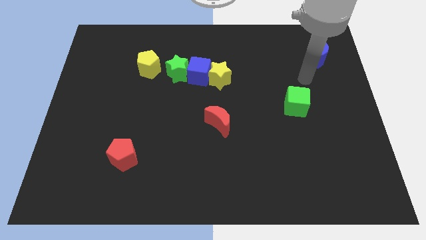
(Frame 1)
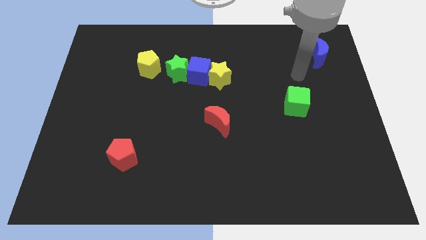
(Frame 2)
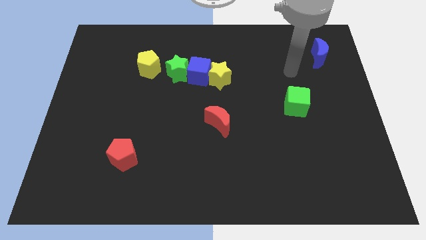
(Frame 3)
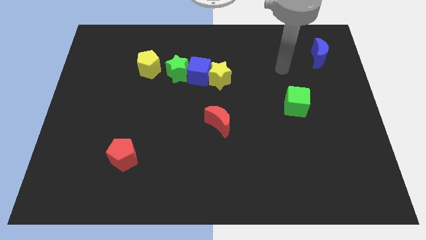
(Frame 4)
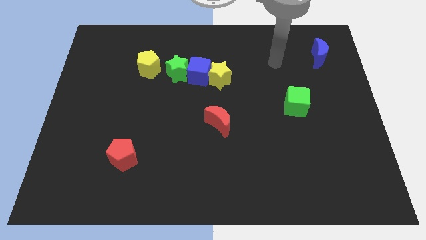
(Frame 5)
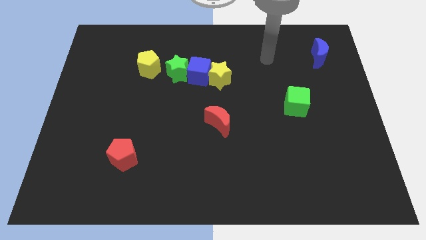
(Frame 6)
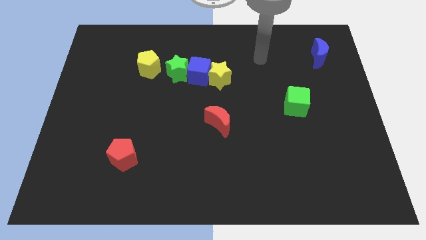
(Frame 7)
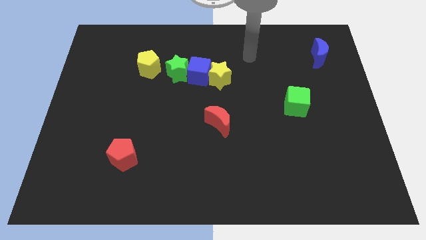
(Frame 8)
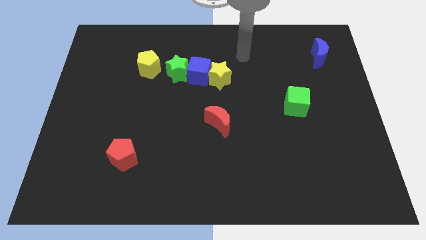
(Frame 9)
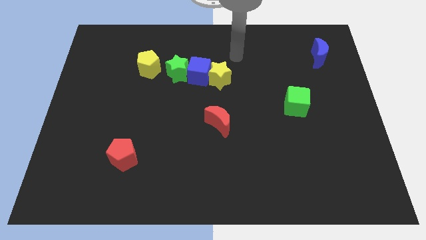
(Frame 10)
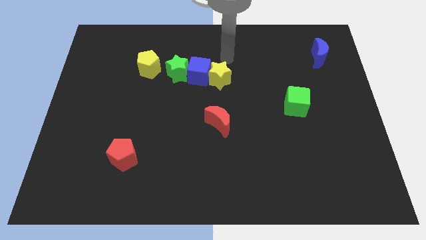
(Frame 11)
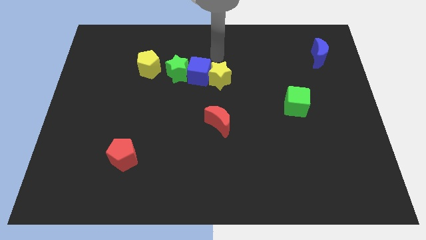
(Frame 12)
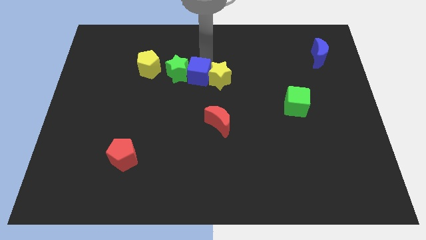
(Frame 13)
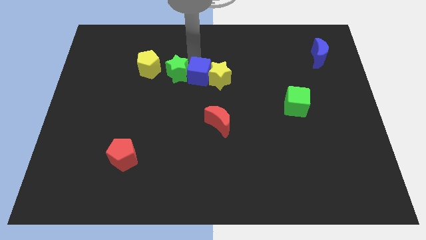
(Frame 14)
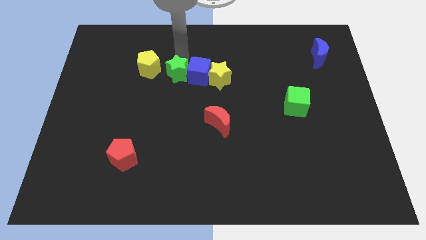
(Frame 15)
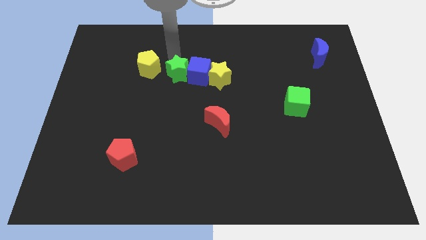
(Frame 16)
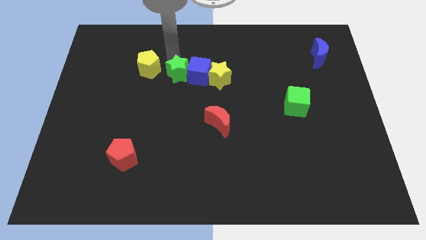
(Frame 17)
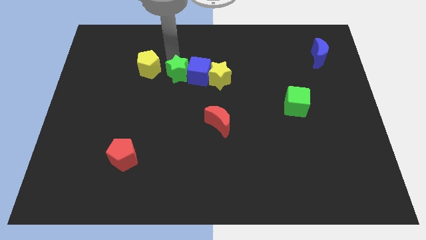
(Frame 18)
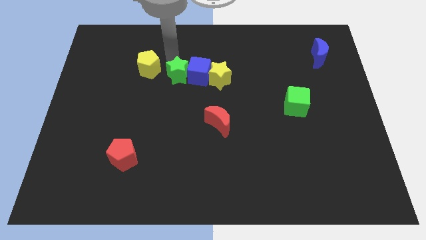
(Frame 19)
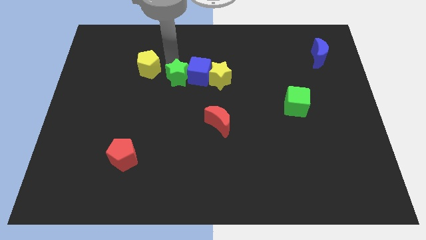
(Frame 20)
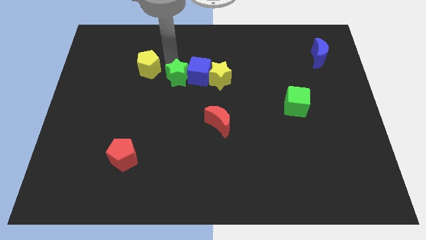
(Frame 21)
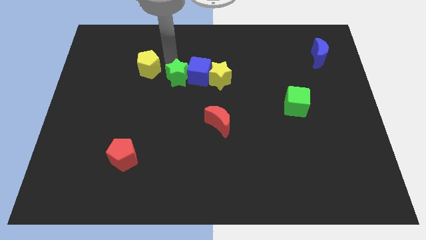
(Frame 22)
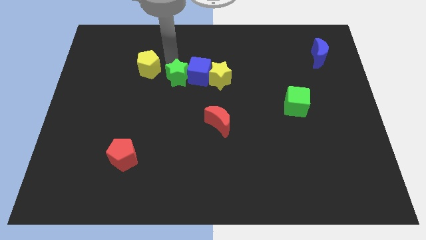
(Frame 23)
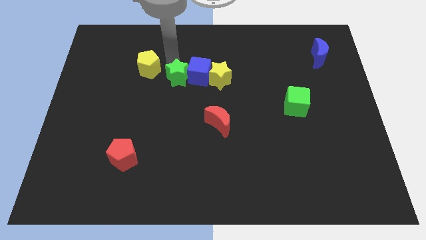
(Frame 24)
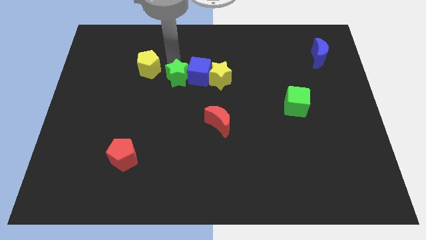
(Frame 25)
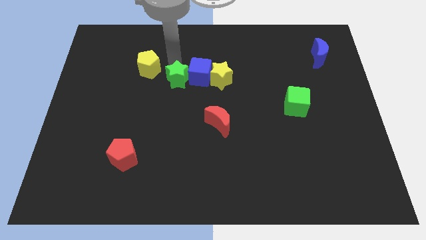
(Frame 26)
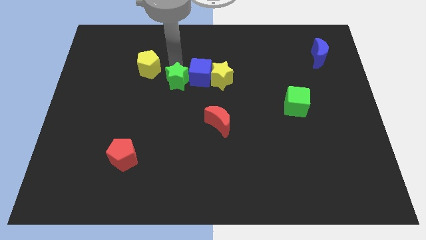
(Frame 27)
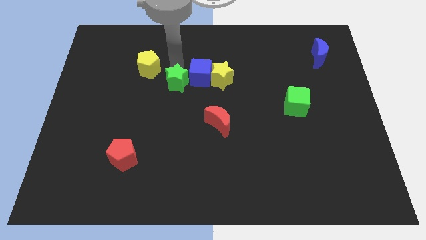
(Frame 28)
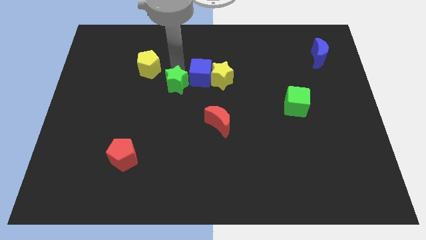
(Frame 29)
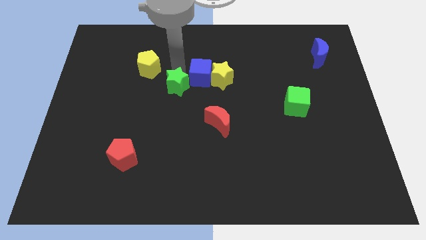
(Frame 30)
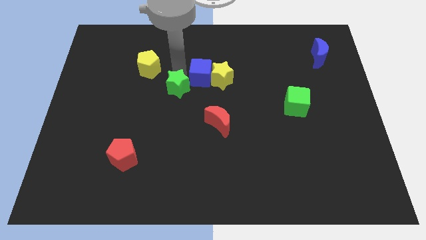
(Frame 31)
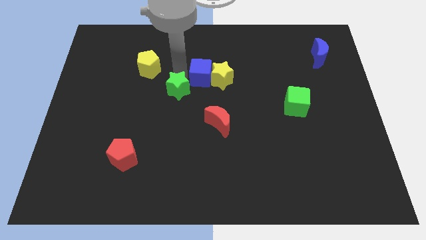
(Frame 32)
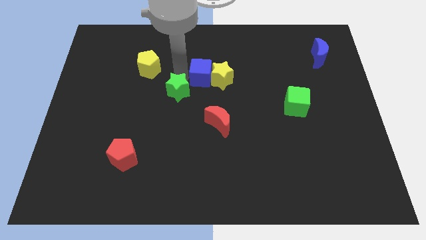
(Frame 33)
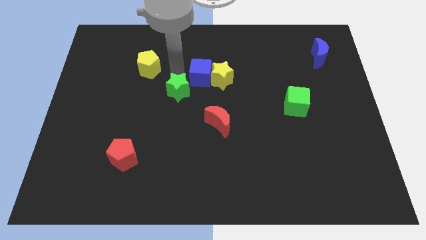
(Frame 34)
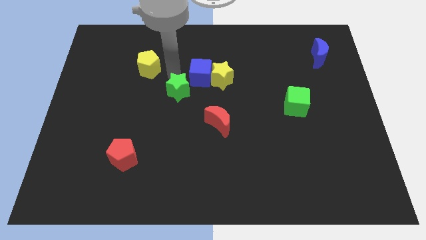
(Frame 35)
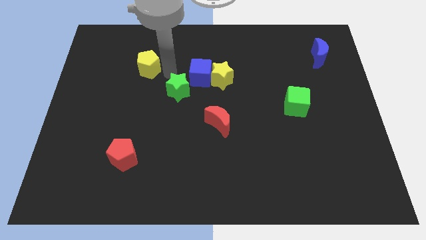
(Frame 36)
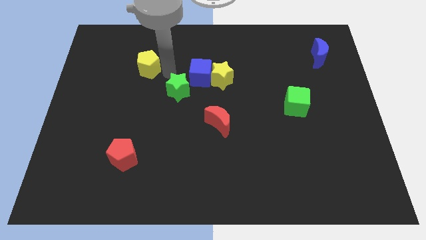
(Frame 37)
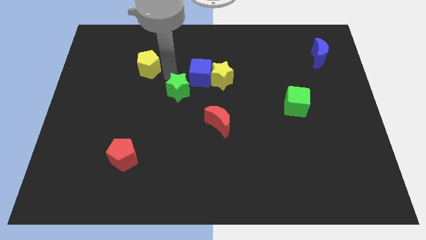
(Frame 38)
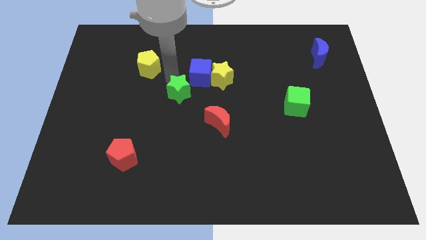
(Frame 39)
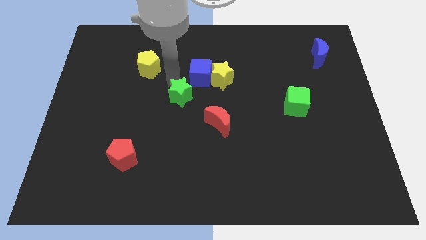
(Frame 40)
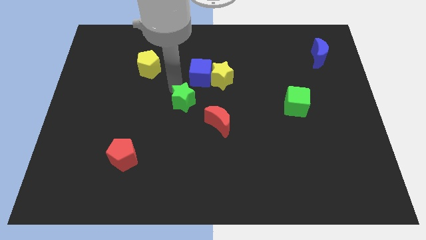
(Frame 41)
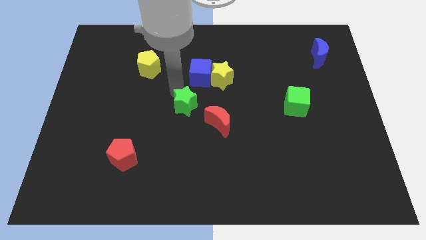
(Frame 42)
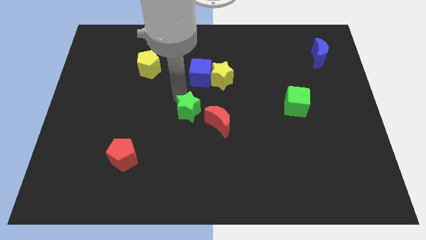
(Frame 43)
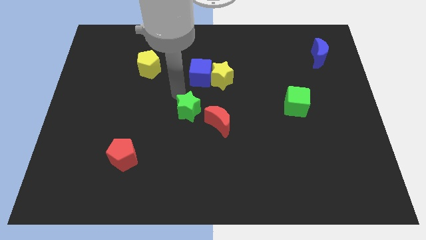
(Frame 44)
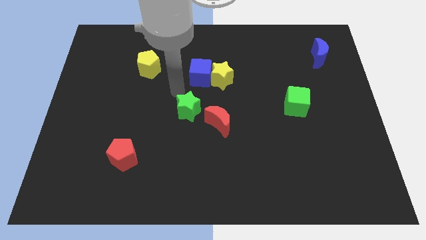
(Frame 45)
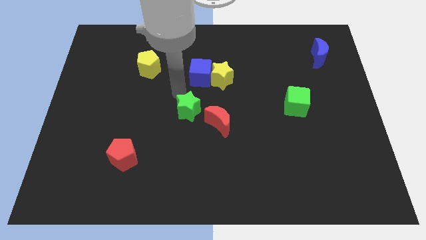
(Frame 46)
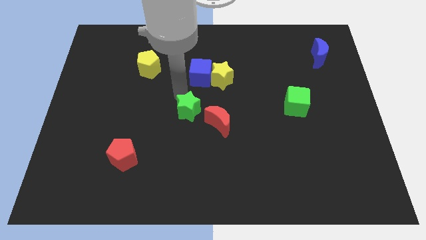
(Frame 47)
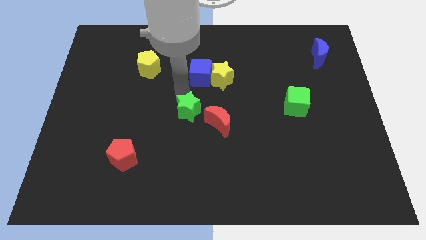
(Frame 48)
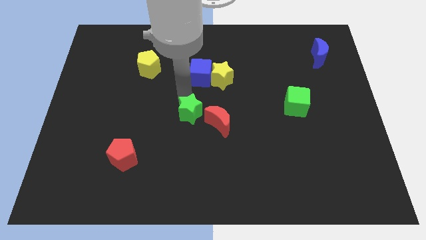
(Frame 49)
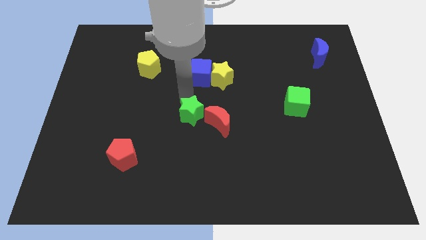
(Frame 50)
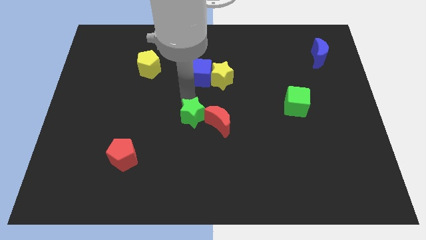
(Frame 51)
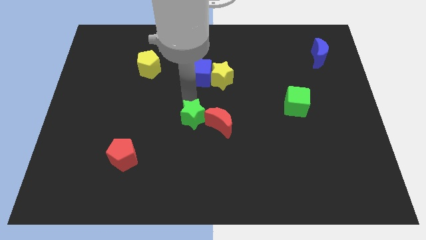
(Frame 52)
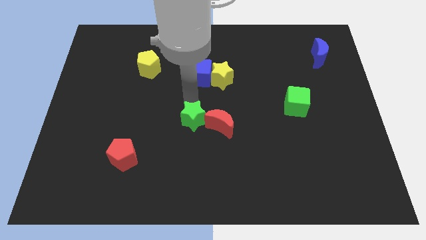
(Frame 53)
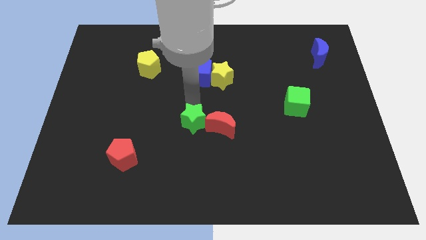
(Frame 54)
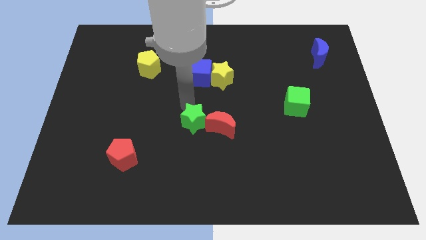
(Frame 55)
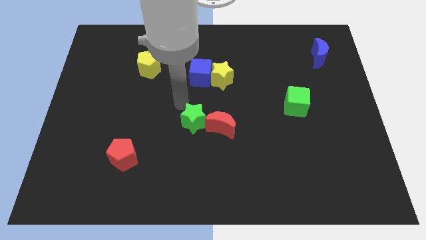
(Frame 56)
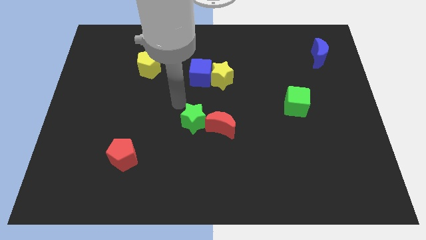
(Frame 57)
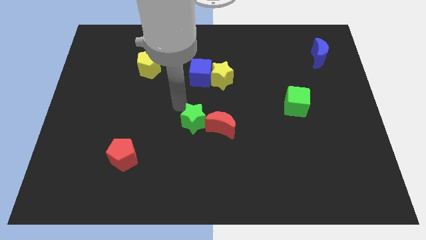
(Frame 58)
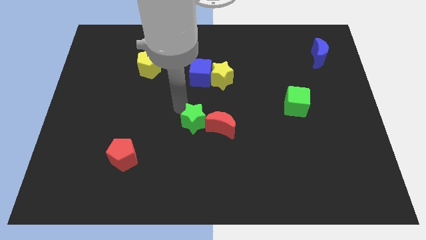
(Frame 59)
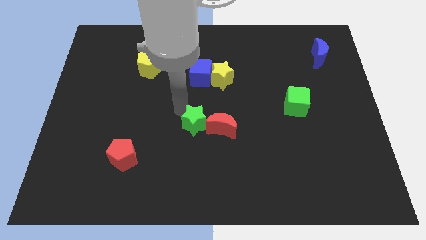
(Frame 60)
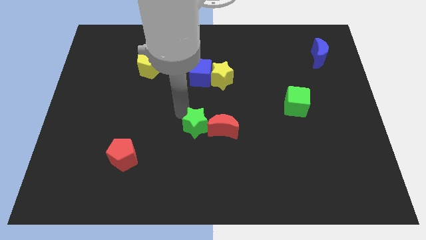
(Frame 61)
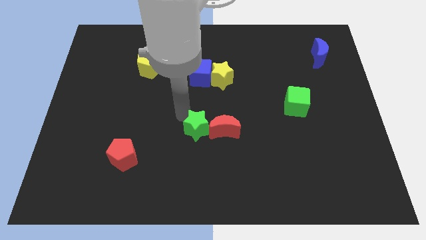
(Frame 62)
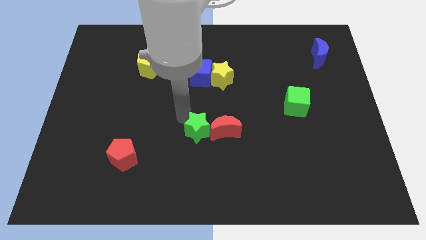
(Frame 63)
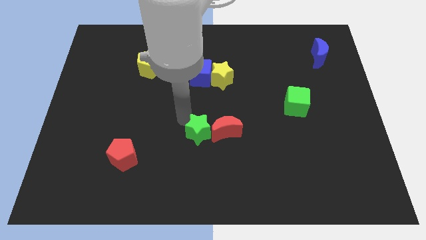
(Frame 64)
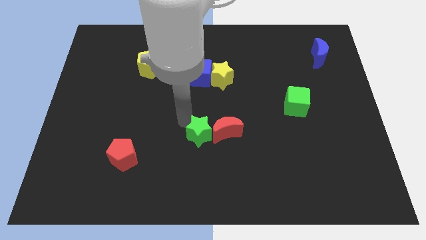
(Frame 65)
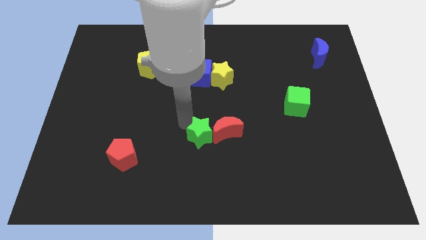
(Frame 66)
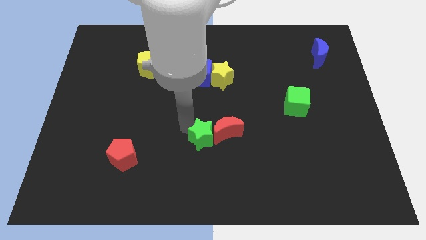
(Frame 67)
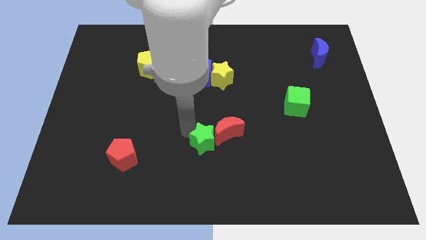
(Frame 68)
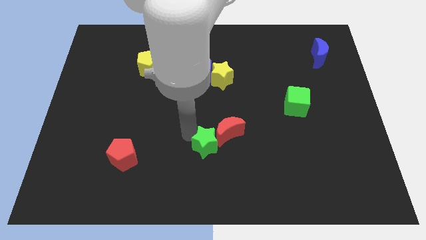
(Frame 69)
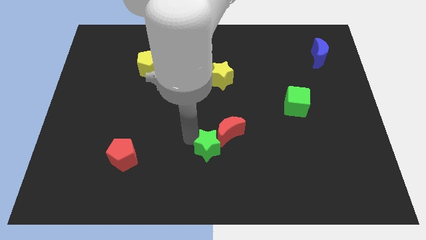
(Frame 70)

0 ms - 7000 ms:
put the green star to the bottom side of the red moon

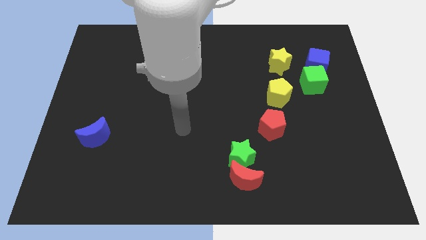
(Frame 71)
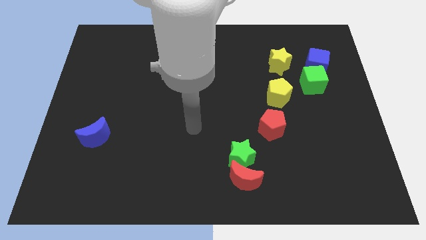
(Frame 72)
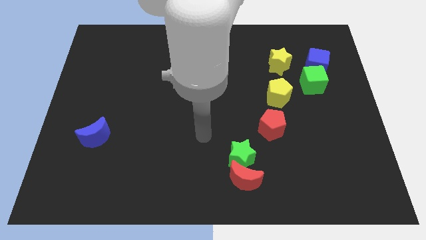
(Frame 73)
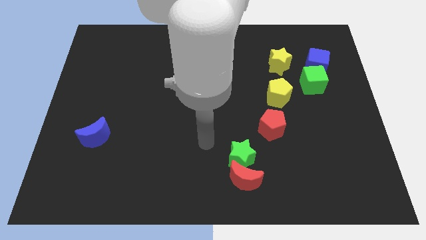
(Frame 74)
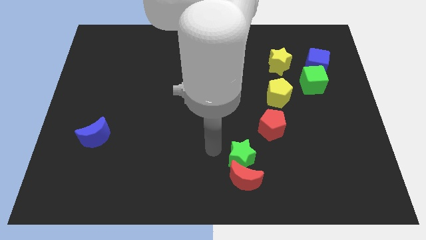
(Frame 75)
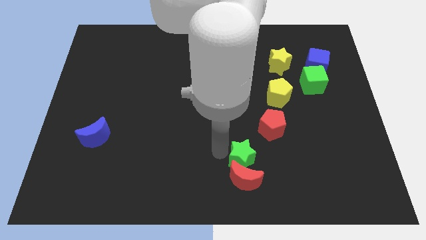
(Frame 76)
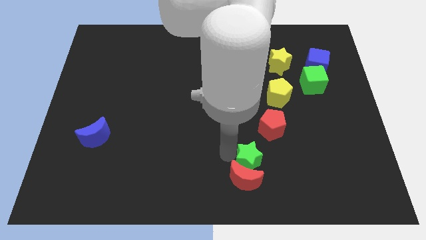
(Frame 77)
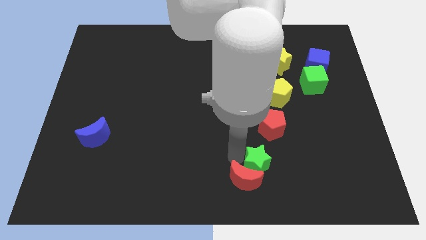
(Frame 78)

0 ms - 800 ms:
push the green star to the bottom side of the red pentagon
